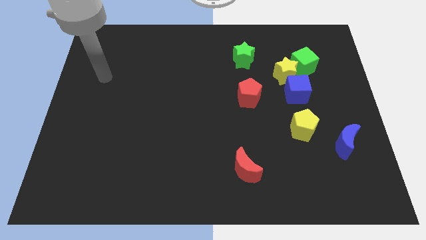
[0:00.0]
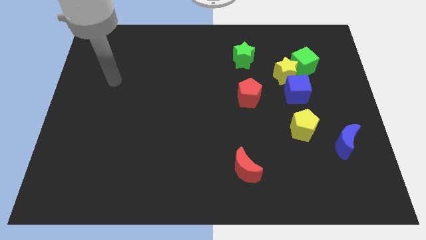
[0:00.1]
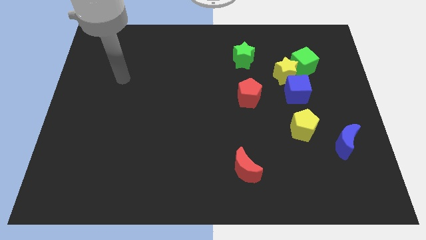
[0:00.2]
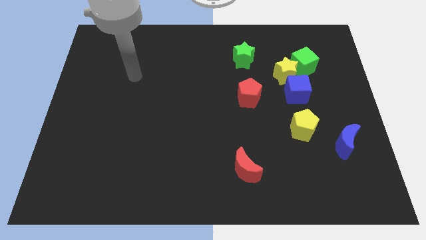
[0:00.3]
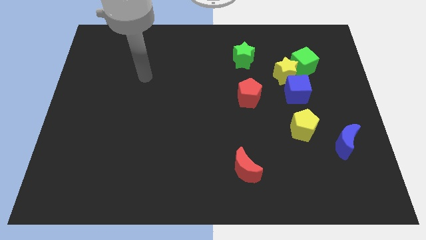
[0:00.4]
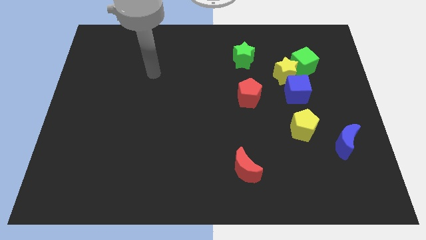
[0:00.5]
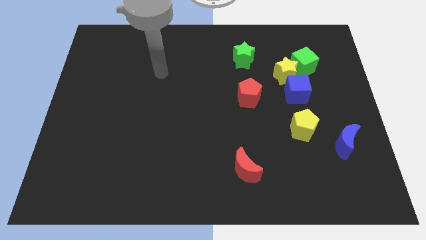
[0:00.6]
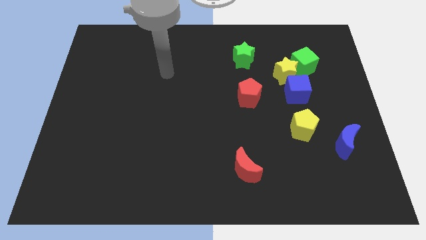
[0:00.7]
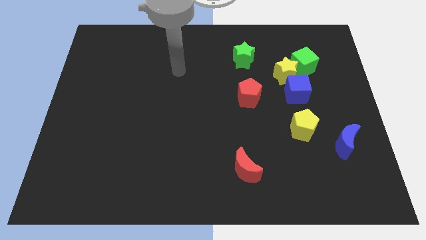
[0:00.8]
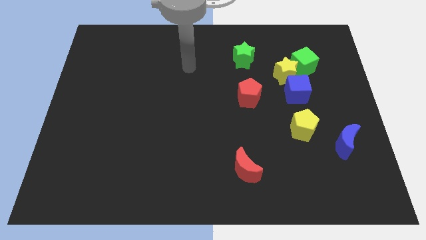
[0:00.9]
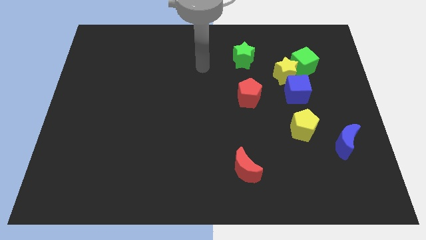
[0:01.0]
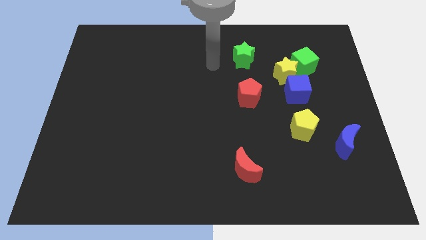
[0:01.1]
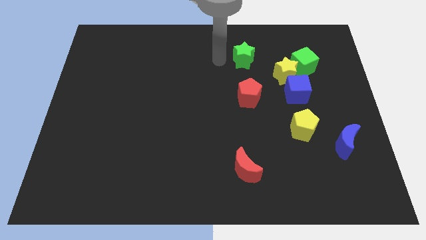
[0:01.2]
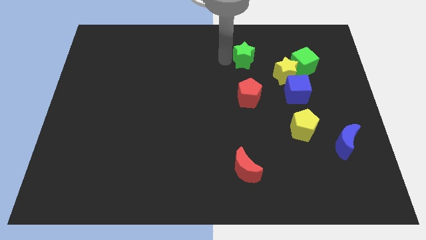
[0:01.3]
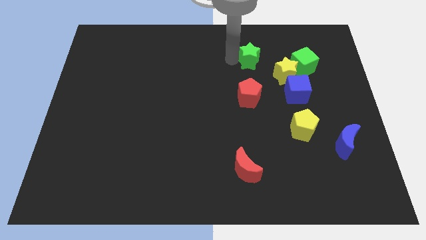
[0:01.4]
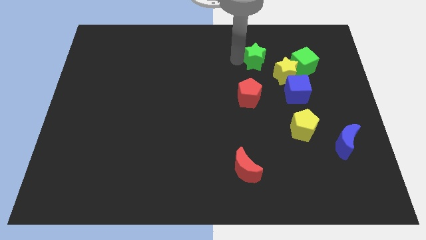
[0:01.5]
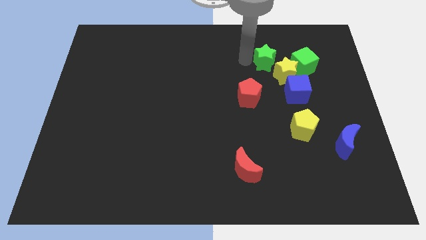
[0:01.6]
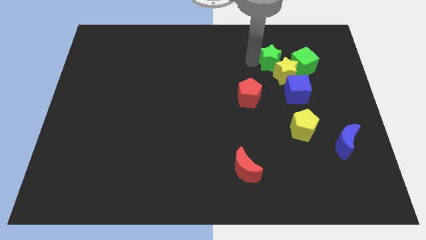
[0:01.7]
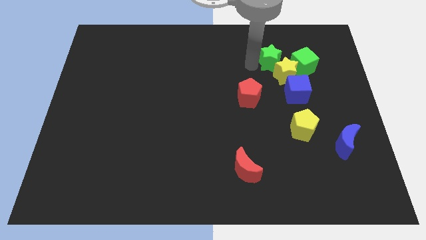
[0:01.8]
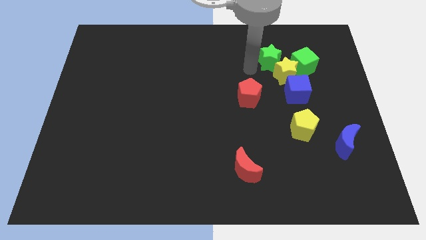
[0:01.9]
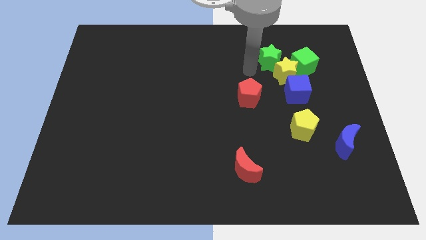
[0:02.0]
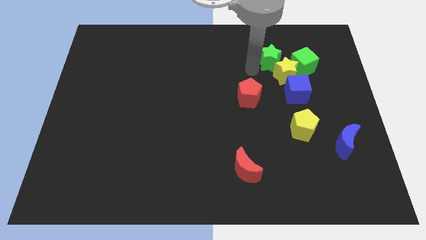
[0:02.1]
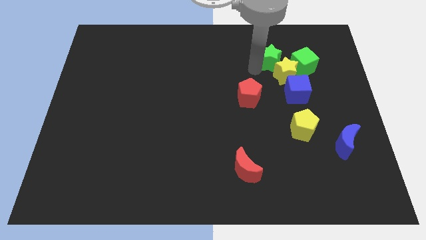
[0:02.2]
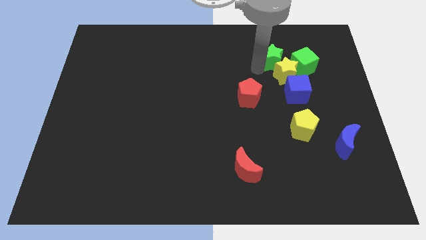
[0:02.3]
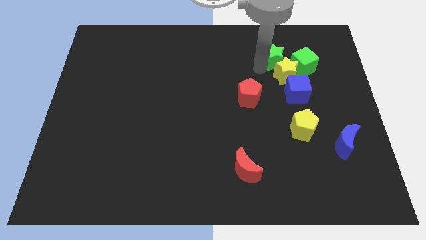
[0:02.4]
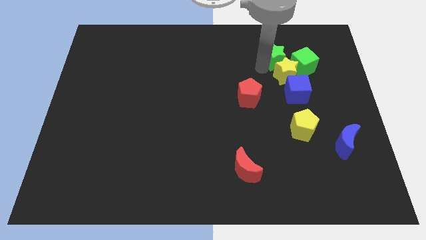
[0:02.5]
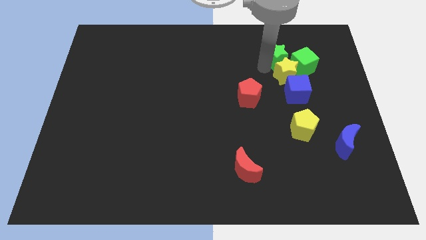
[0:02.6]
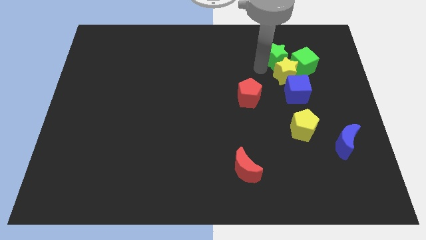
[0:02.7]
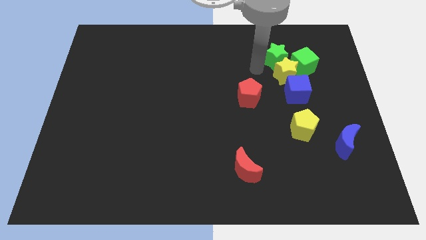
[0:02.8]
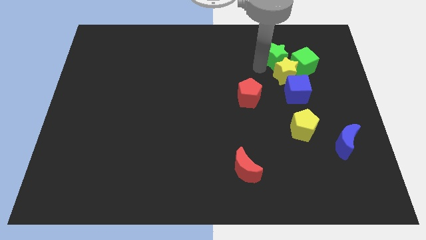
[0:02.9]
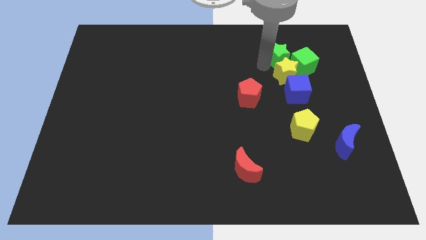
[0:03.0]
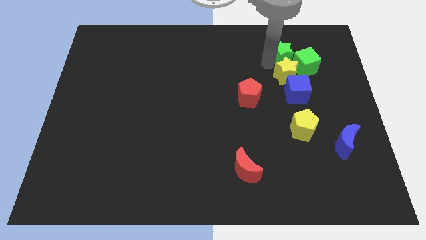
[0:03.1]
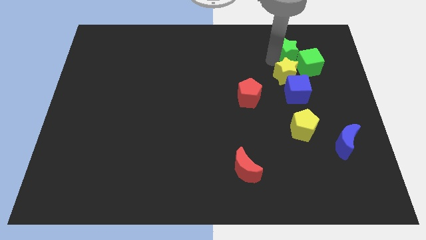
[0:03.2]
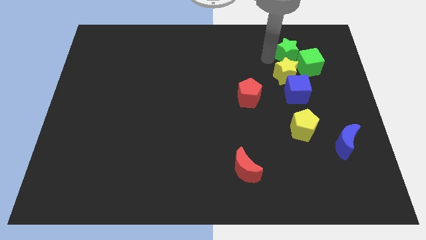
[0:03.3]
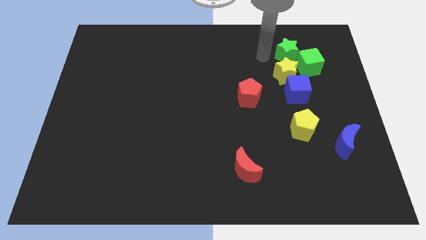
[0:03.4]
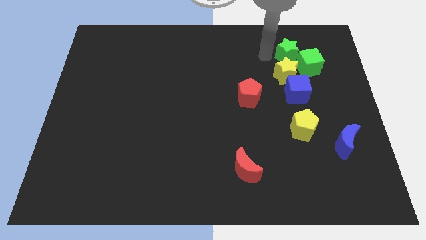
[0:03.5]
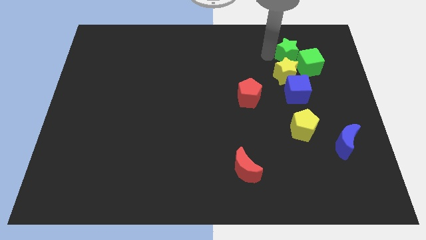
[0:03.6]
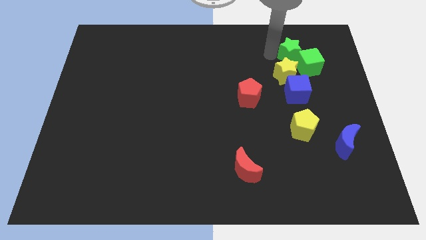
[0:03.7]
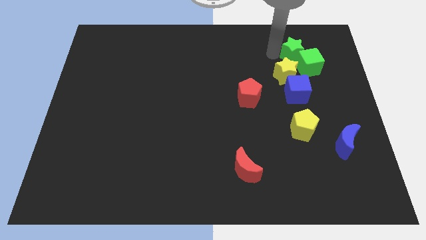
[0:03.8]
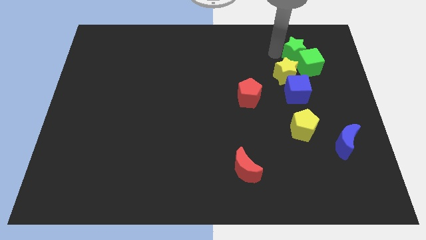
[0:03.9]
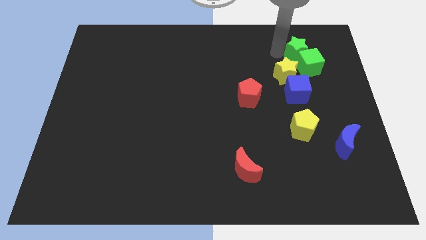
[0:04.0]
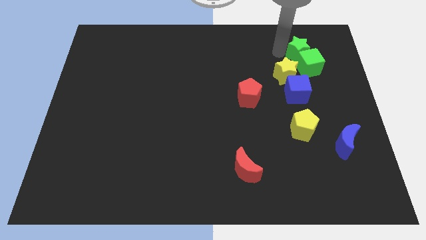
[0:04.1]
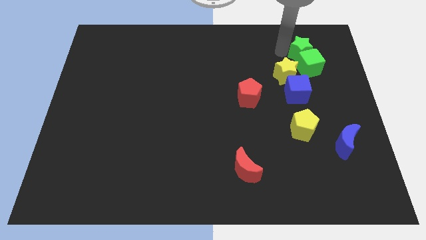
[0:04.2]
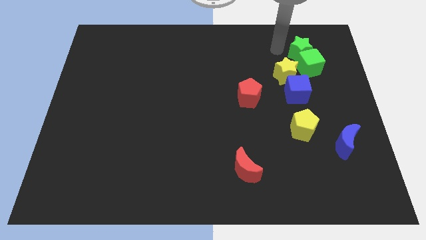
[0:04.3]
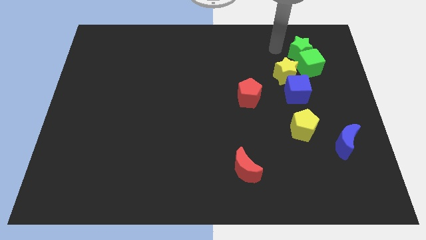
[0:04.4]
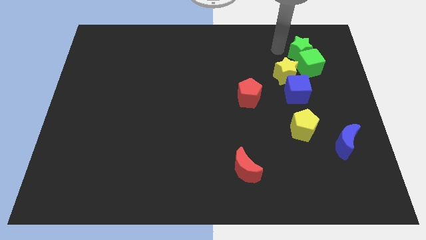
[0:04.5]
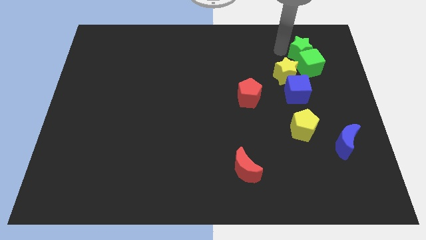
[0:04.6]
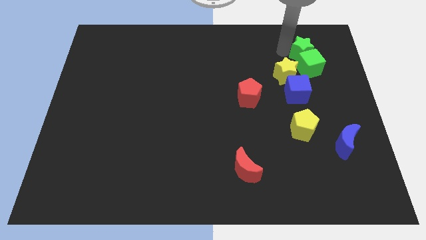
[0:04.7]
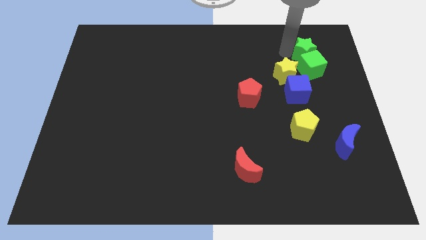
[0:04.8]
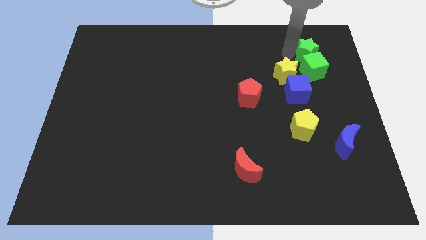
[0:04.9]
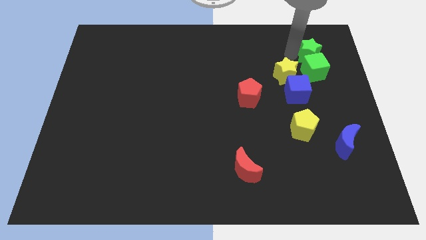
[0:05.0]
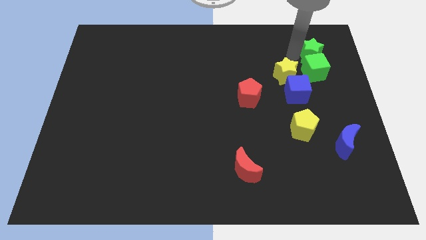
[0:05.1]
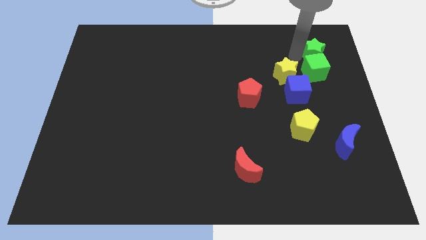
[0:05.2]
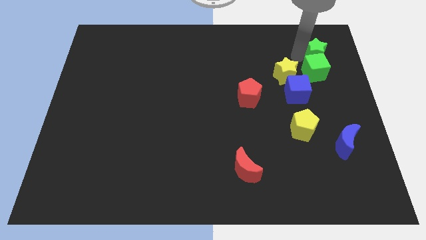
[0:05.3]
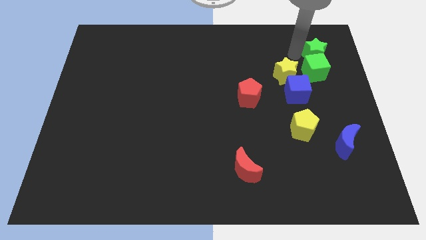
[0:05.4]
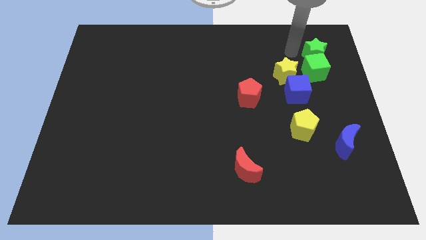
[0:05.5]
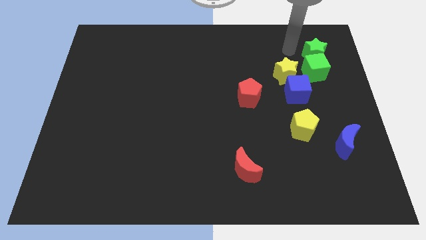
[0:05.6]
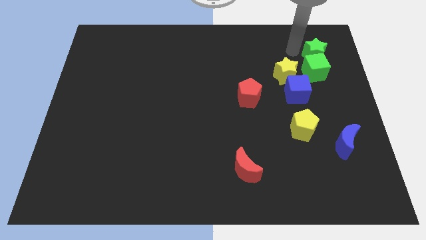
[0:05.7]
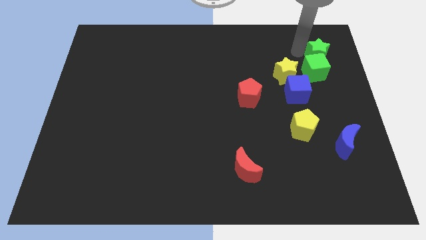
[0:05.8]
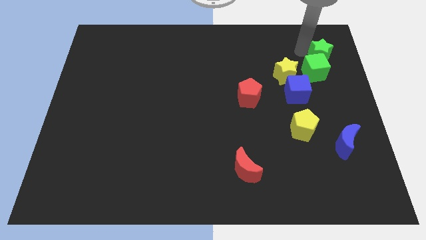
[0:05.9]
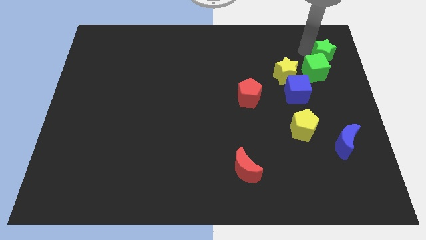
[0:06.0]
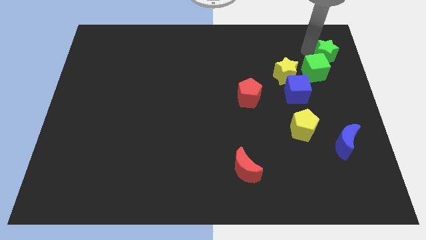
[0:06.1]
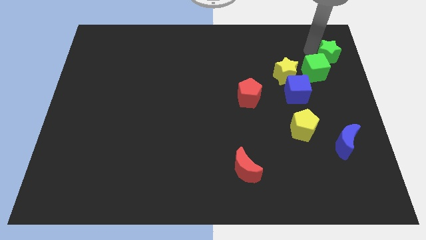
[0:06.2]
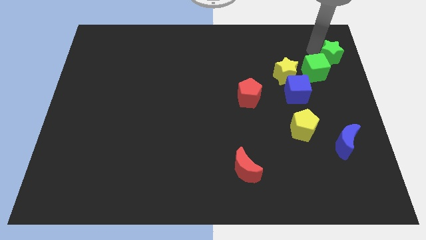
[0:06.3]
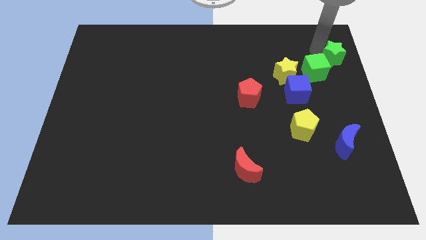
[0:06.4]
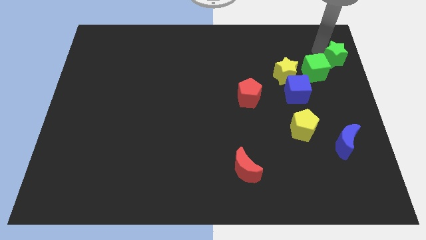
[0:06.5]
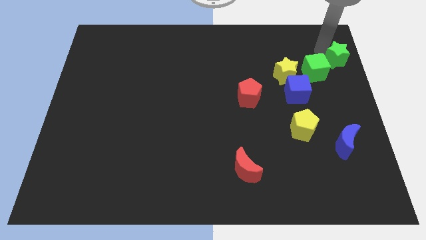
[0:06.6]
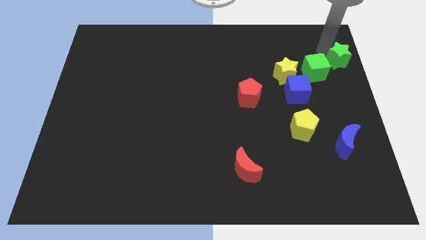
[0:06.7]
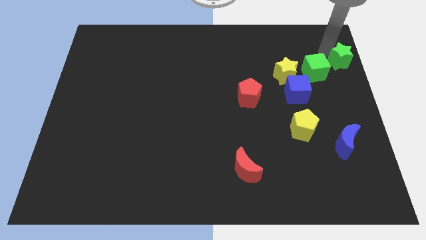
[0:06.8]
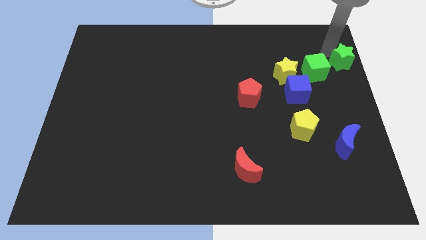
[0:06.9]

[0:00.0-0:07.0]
move the green star to the center right
